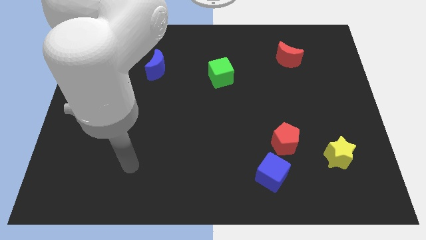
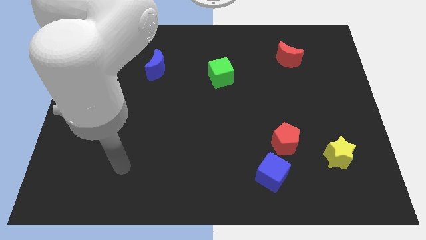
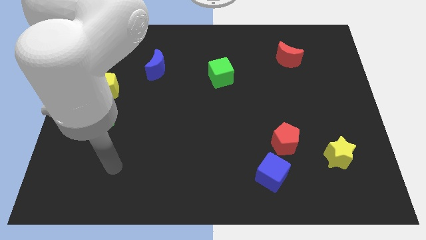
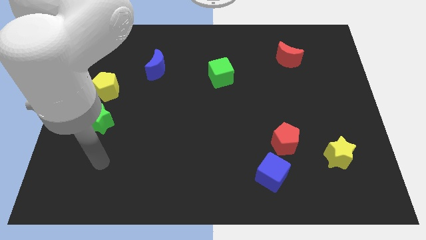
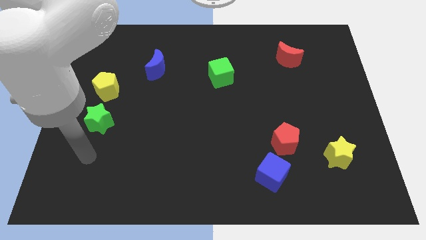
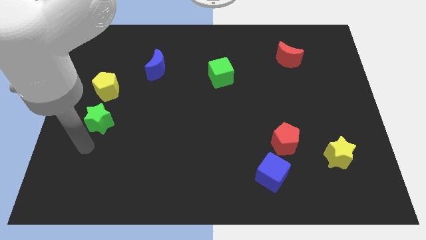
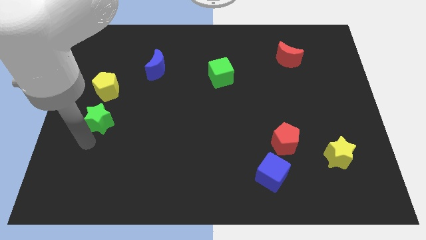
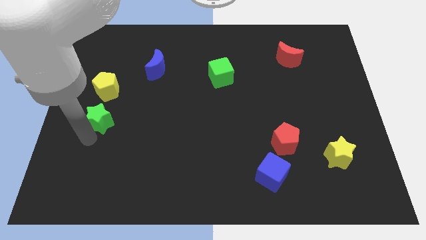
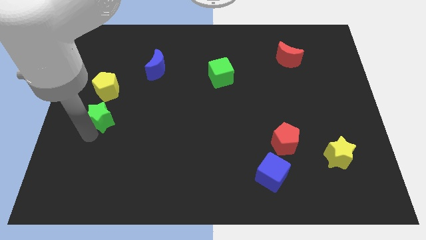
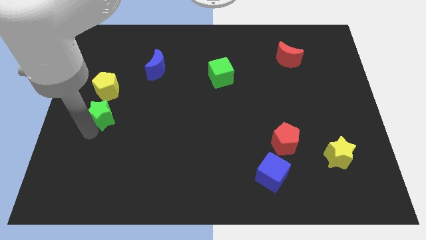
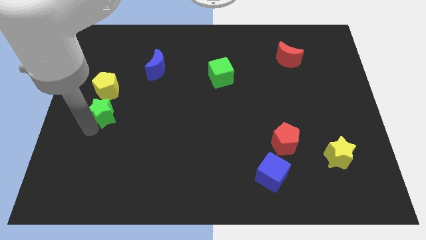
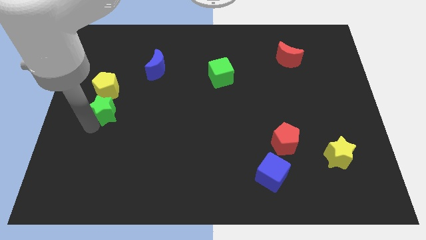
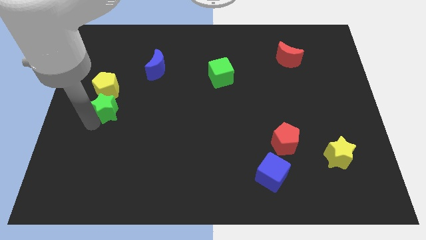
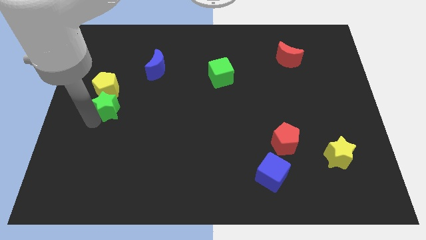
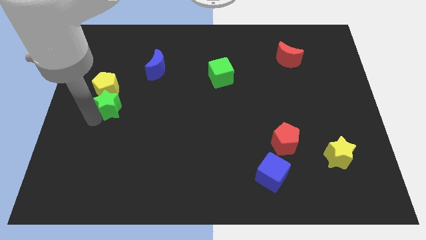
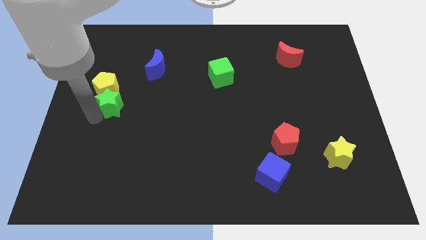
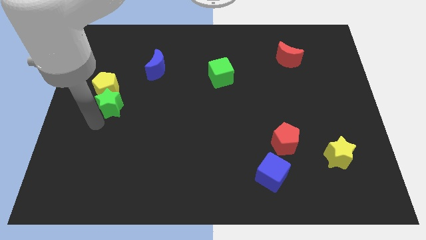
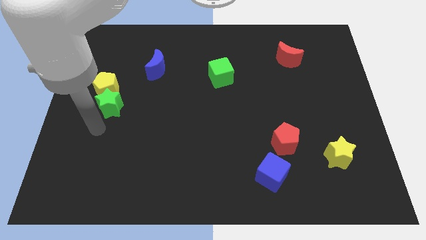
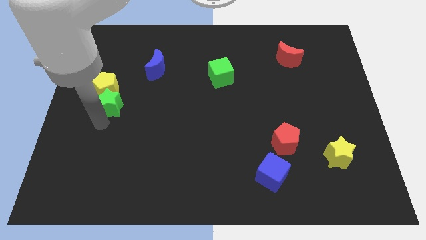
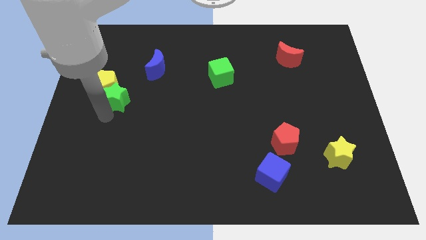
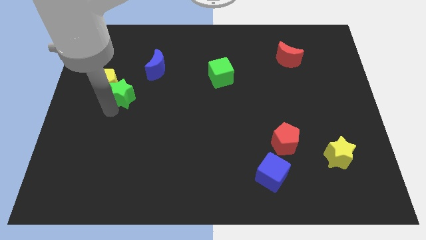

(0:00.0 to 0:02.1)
slide the green star up slightly

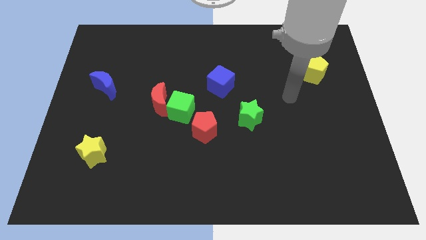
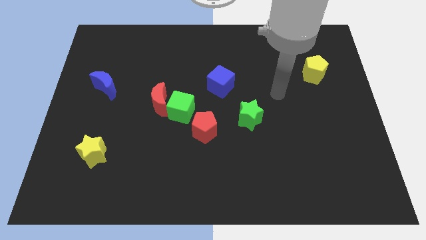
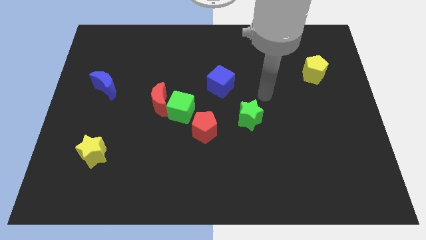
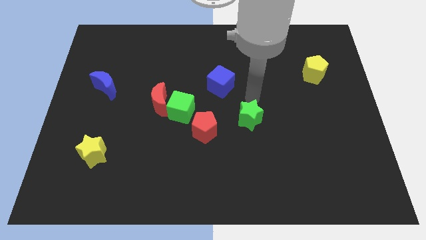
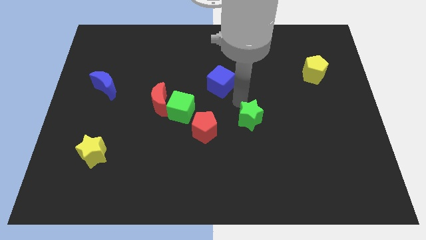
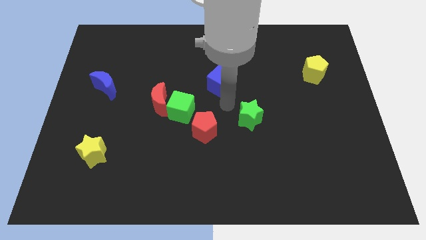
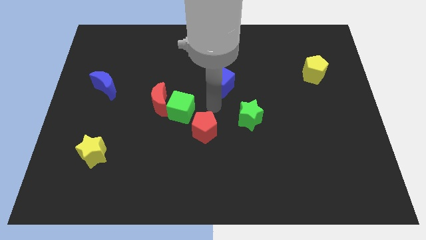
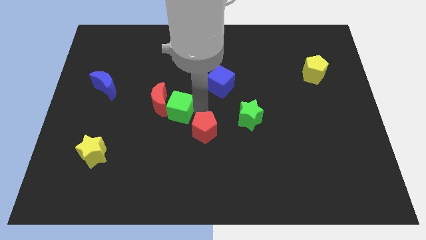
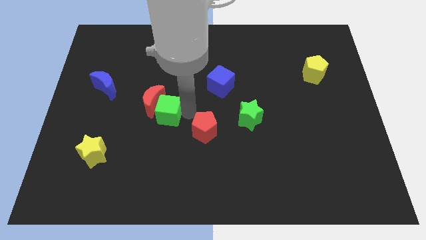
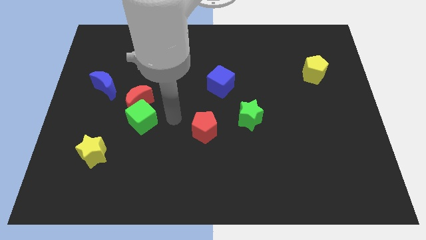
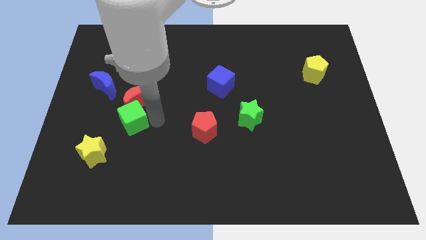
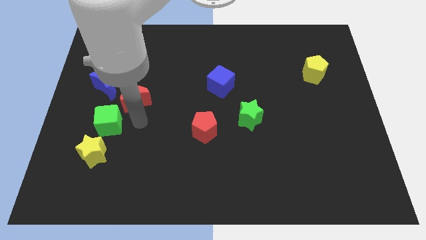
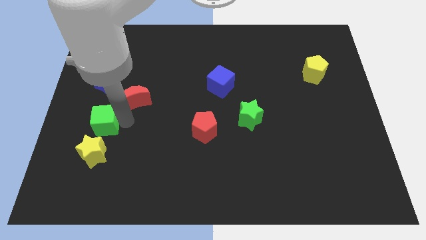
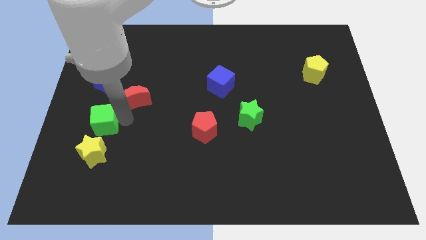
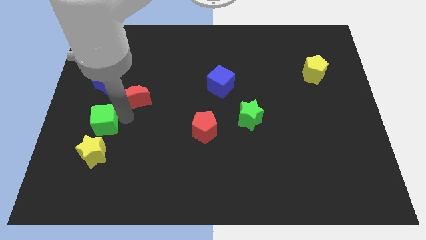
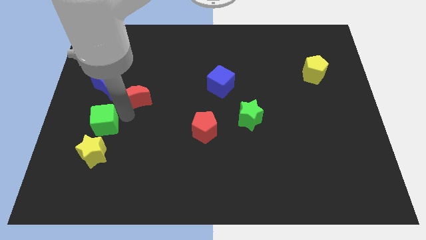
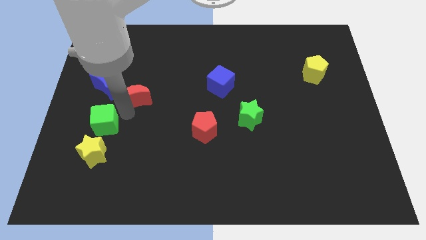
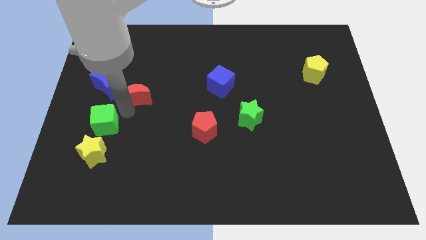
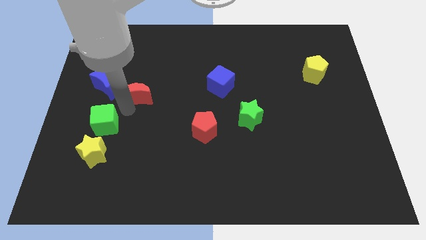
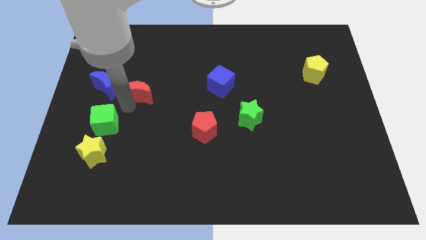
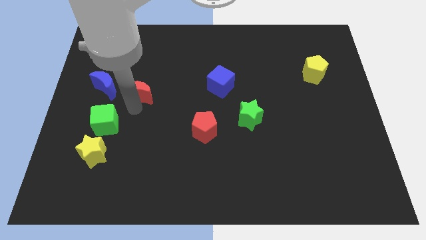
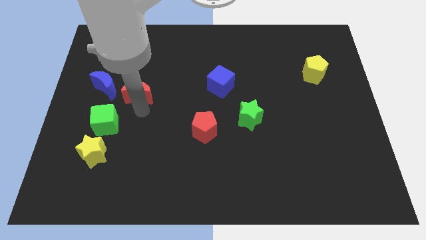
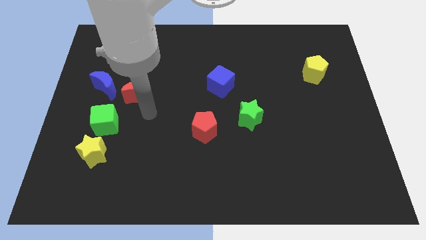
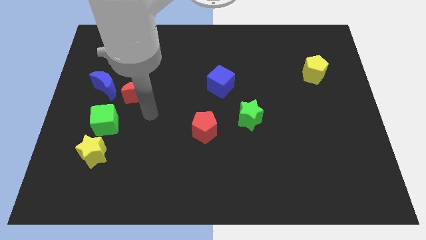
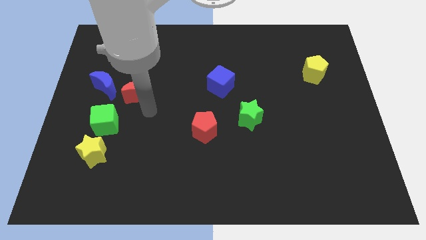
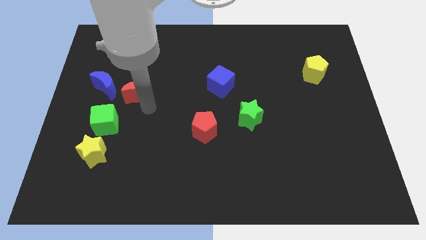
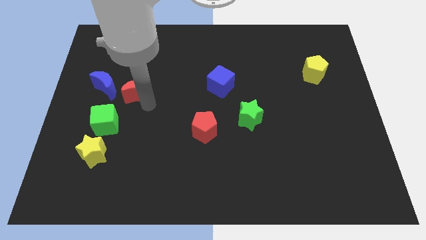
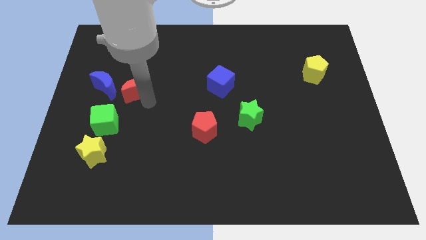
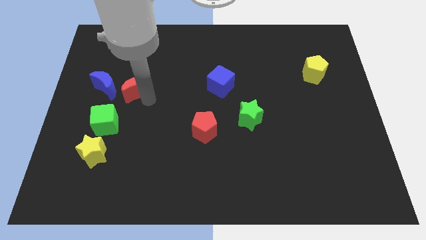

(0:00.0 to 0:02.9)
slightly move the red moon diagonally upwards and left

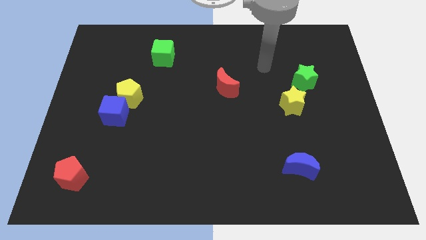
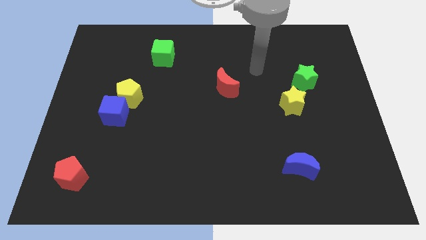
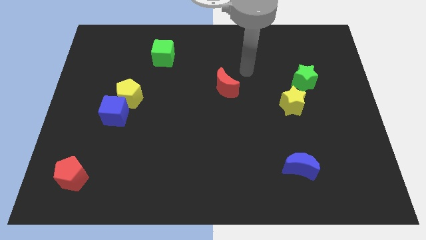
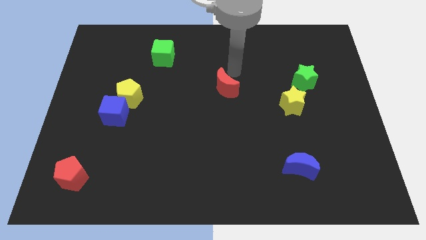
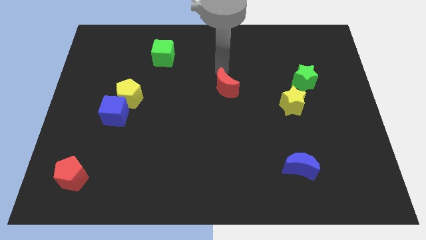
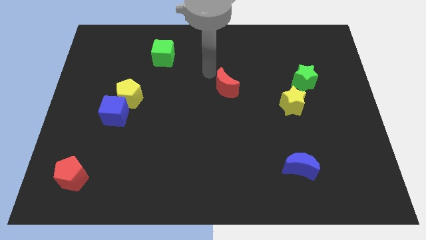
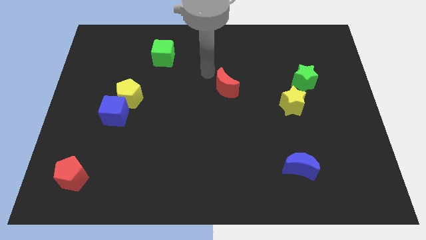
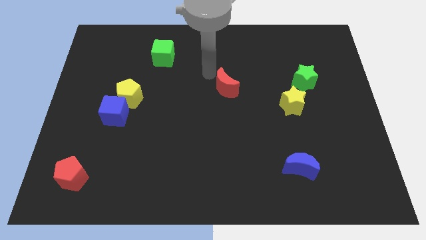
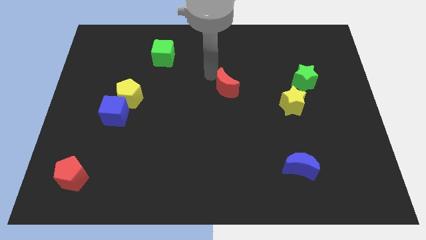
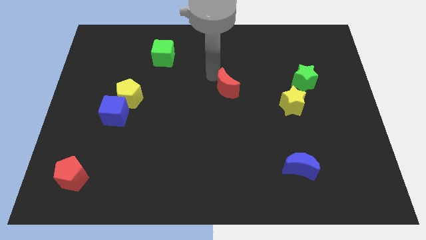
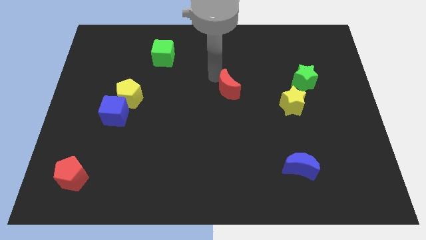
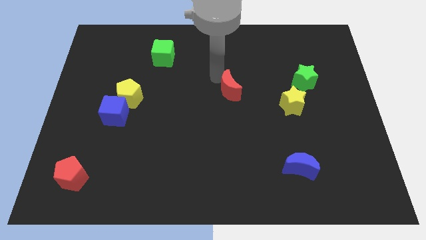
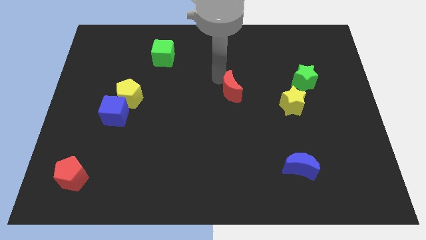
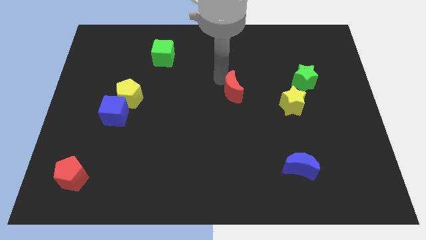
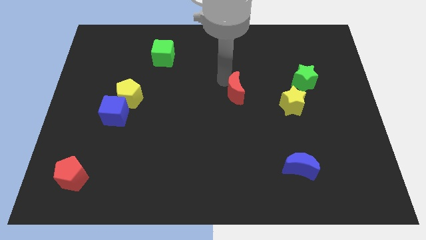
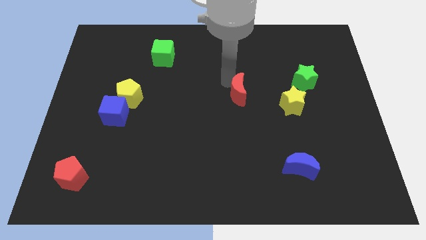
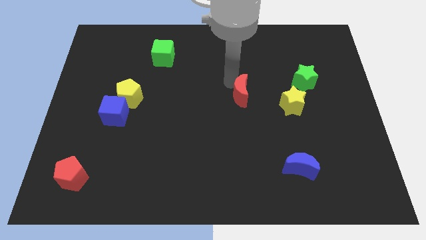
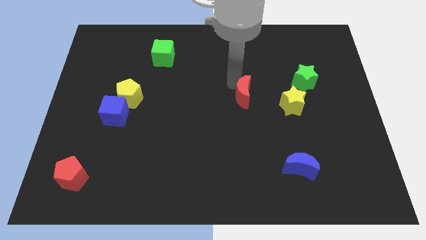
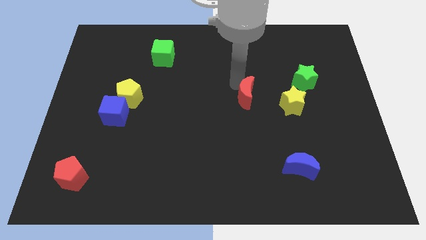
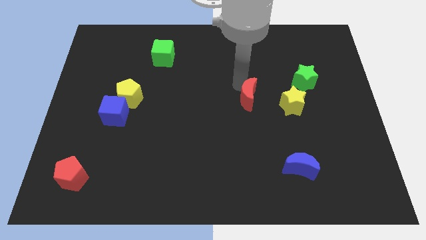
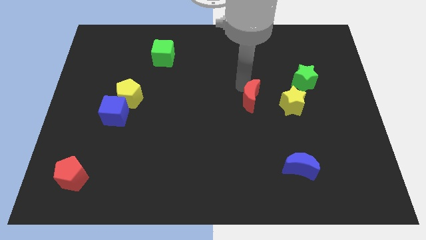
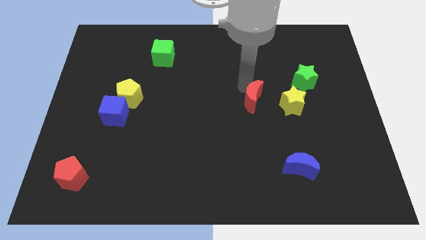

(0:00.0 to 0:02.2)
move the red moon somewhat diagonally down and right

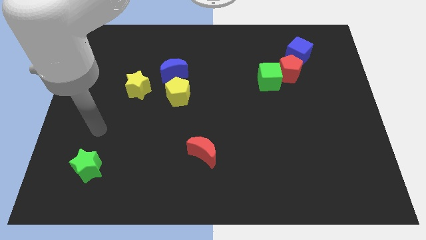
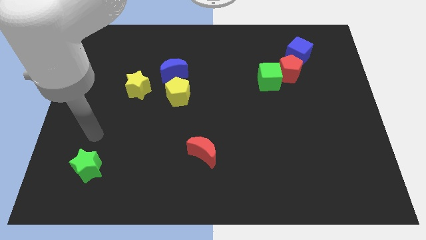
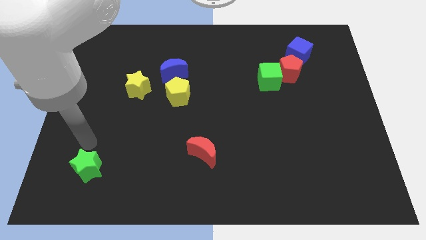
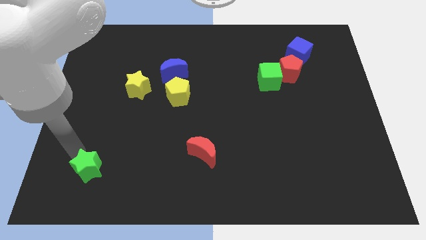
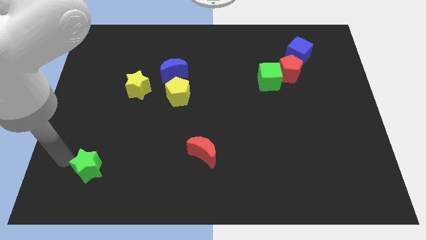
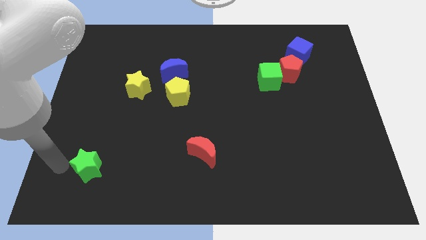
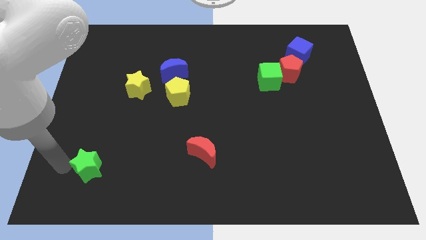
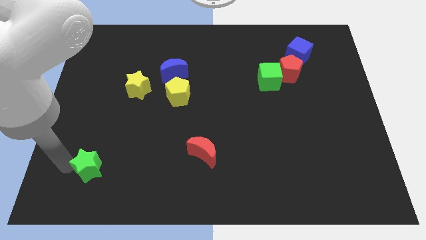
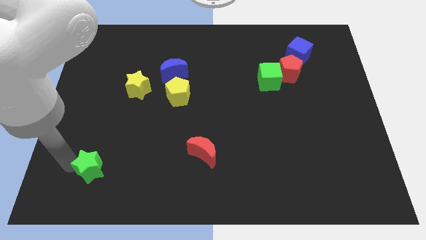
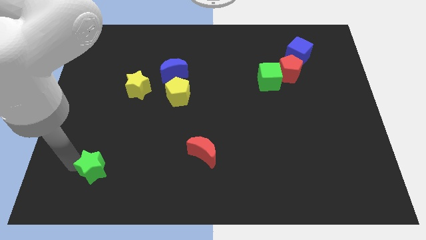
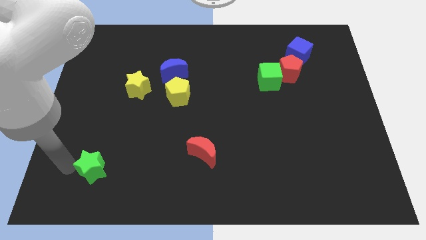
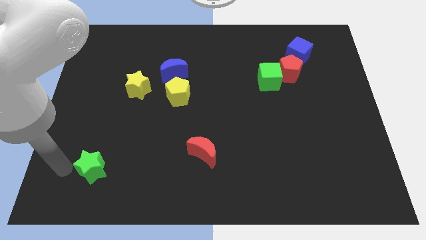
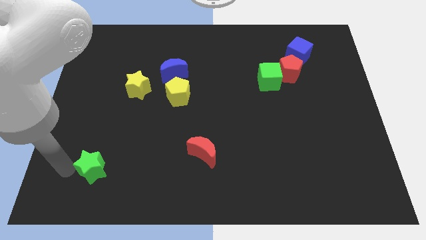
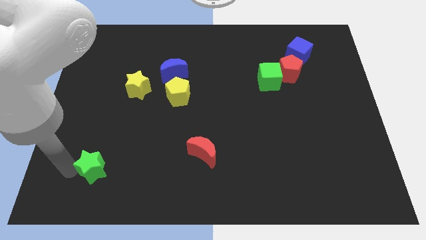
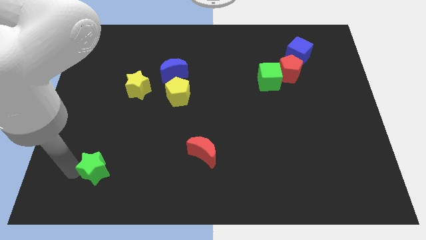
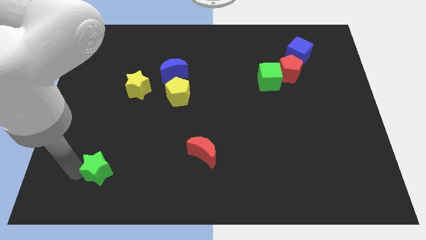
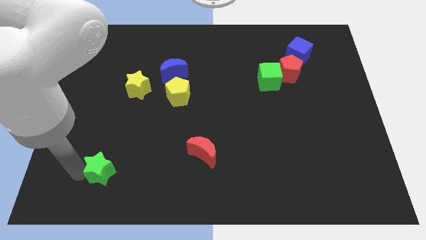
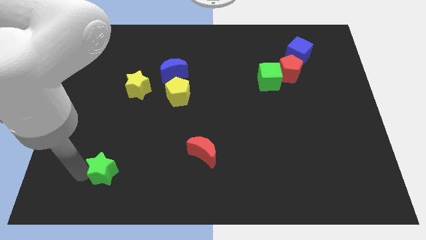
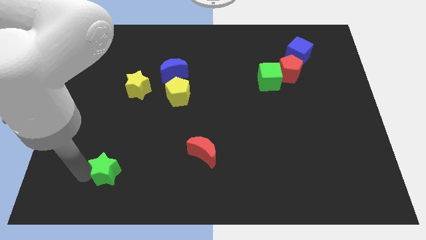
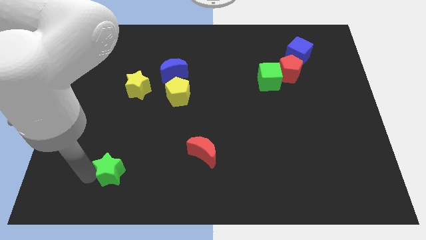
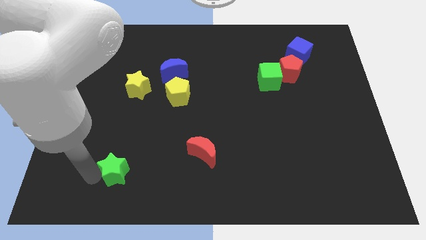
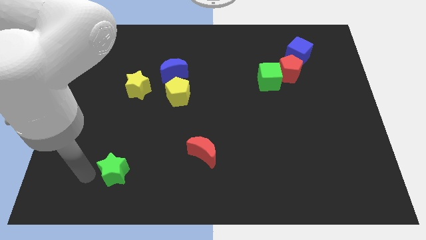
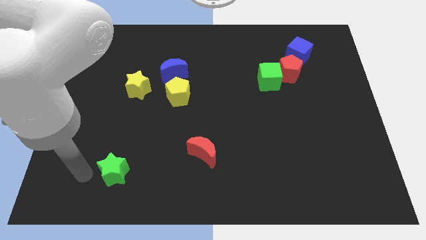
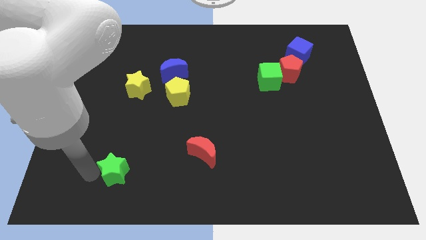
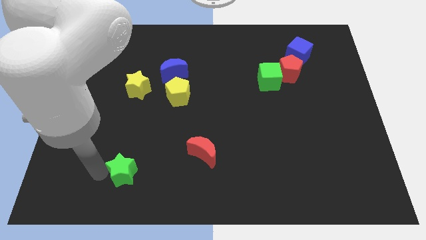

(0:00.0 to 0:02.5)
slightly slide the green star right
